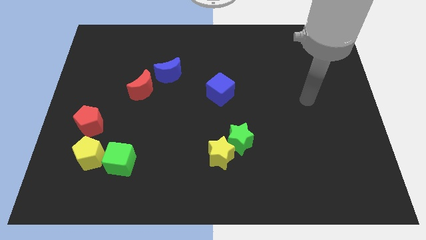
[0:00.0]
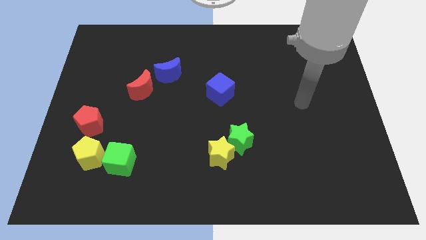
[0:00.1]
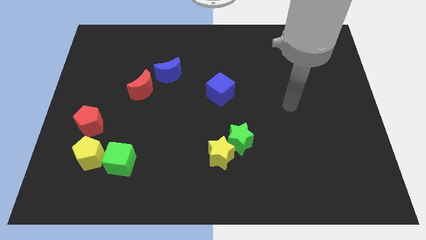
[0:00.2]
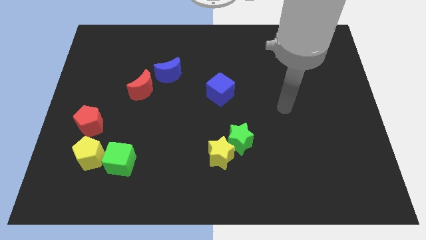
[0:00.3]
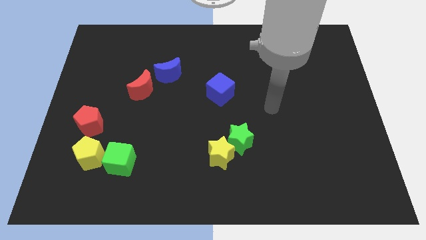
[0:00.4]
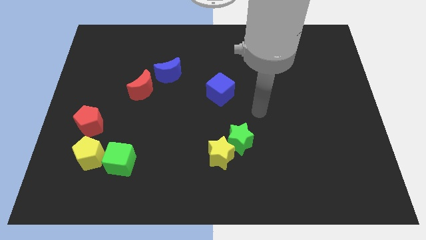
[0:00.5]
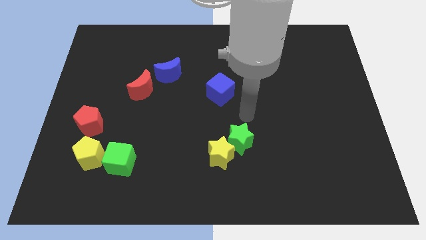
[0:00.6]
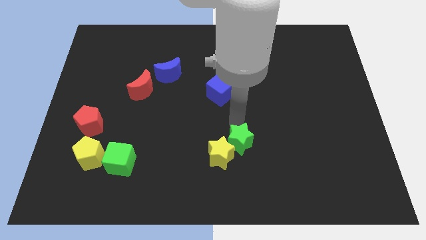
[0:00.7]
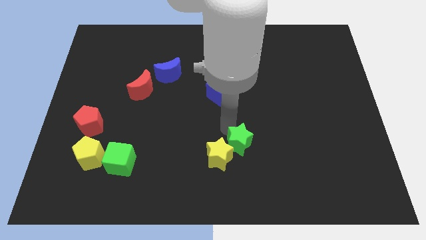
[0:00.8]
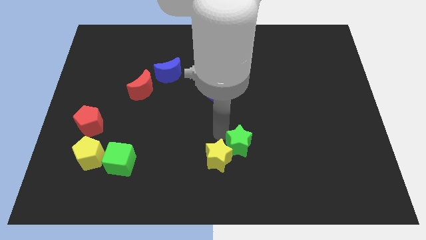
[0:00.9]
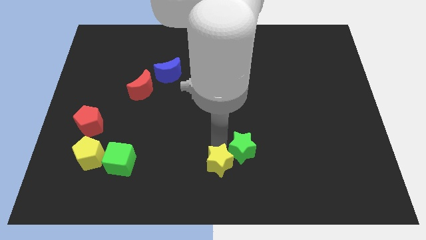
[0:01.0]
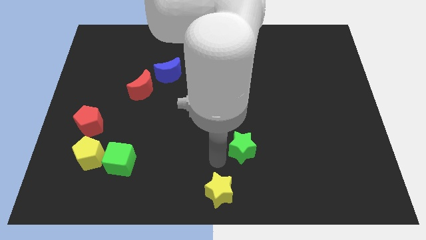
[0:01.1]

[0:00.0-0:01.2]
move the green star away from the yellow star

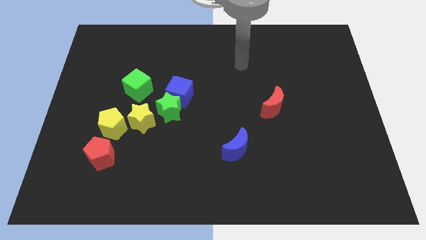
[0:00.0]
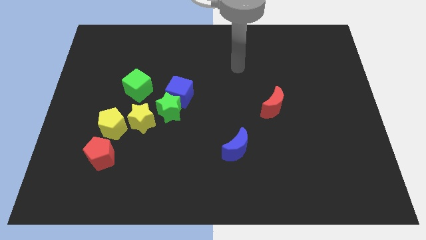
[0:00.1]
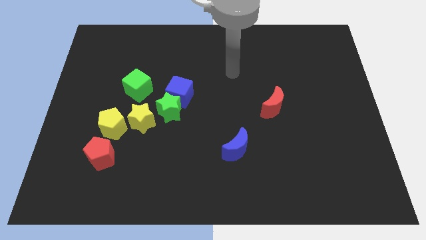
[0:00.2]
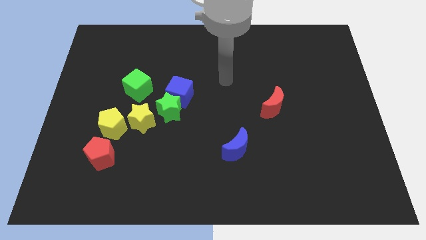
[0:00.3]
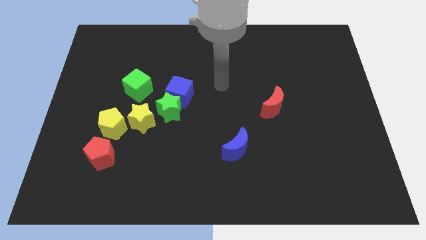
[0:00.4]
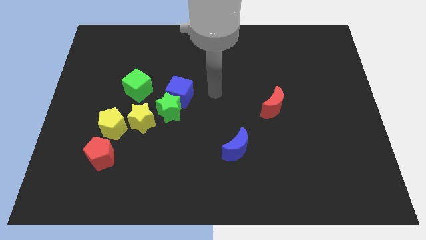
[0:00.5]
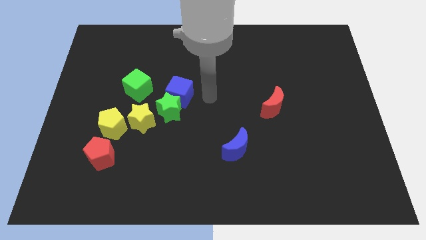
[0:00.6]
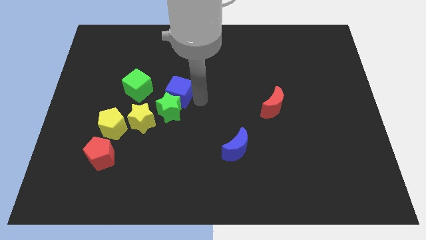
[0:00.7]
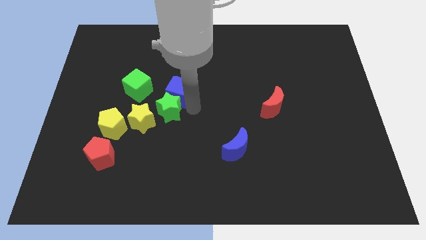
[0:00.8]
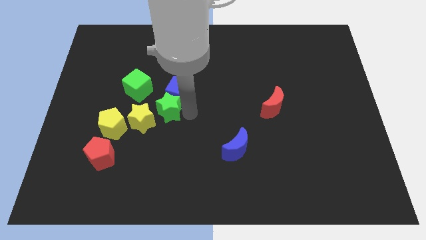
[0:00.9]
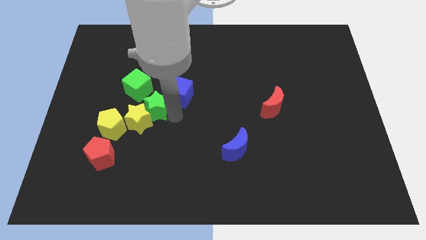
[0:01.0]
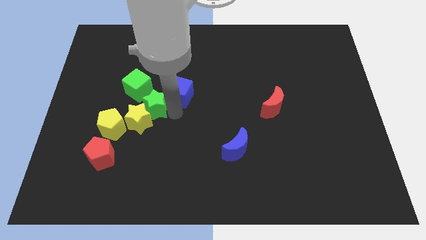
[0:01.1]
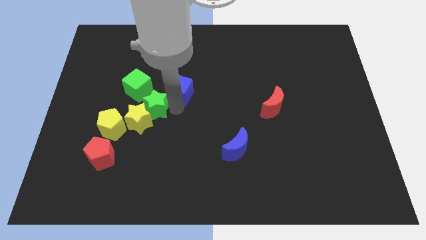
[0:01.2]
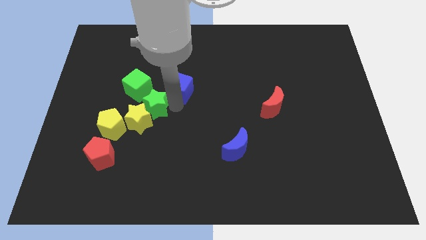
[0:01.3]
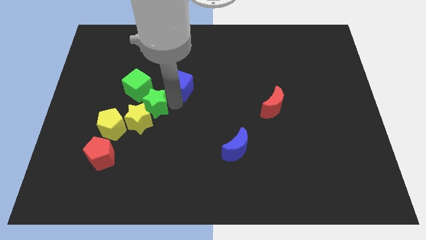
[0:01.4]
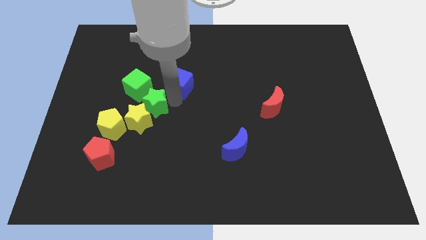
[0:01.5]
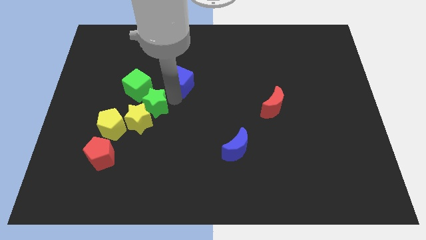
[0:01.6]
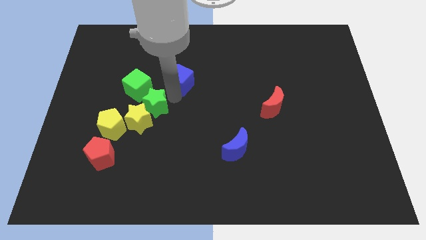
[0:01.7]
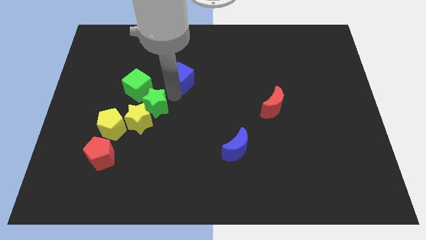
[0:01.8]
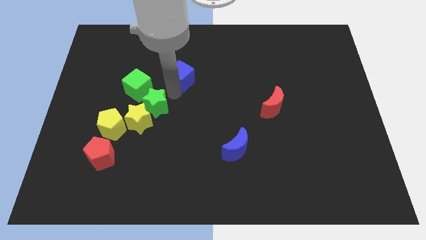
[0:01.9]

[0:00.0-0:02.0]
separate the blue cube from the green star

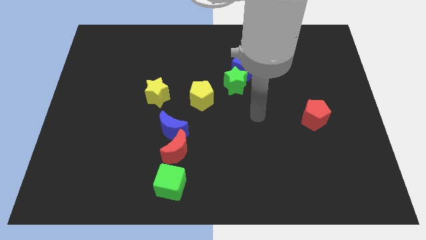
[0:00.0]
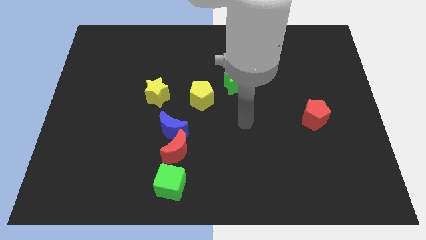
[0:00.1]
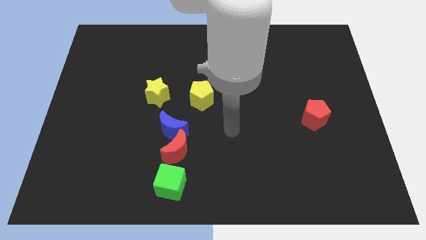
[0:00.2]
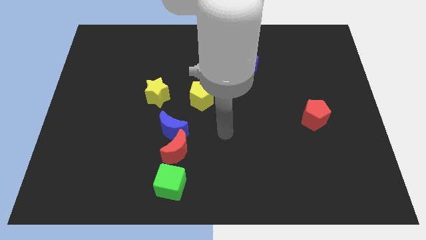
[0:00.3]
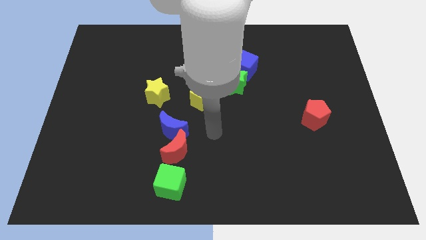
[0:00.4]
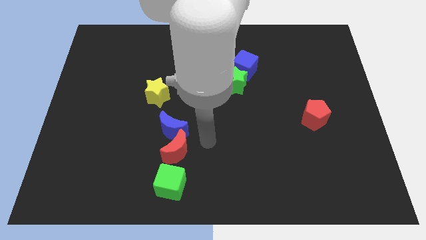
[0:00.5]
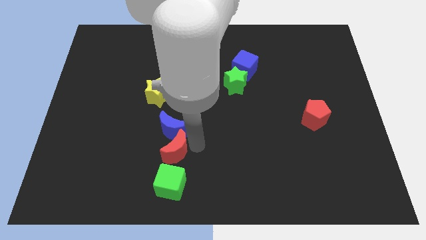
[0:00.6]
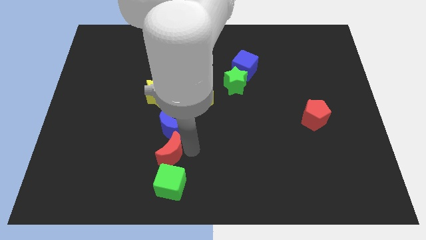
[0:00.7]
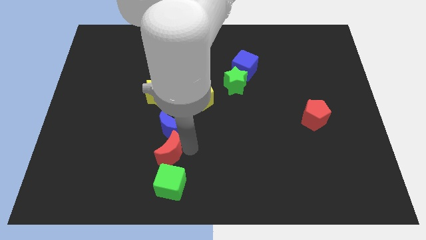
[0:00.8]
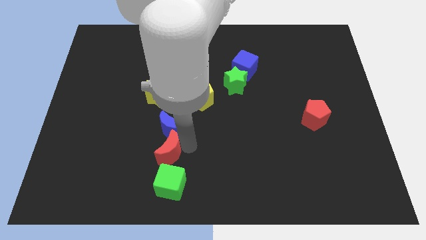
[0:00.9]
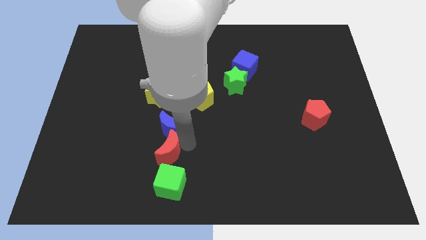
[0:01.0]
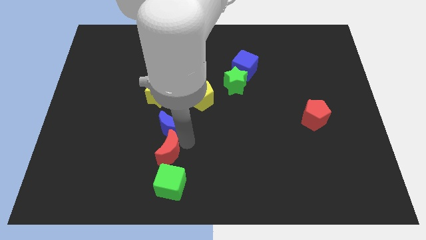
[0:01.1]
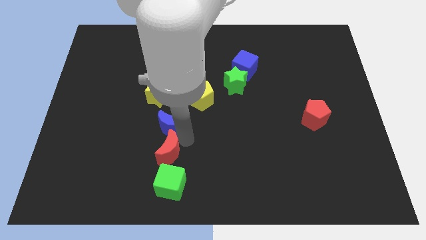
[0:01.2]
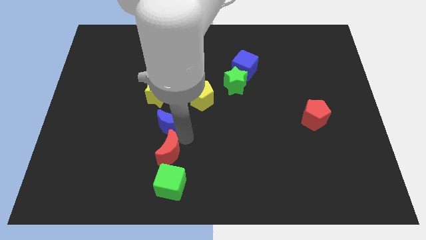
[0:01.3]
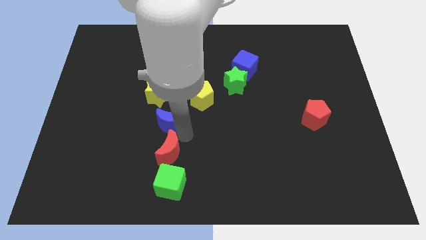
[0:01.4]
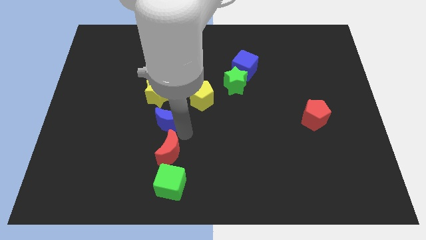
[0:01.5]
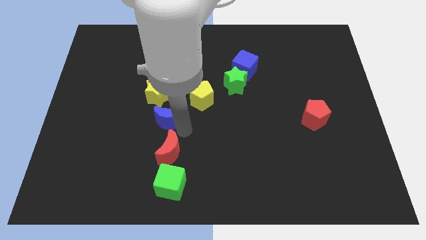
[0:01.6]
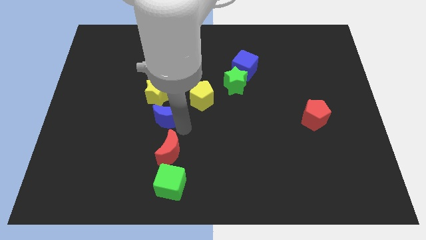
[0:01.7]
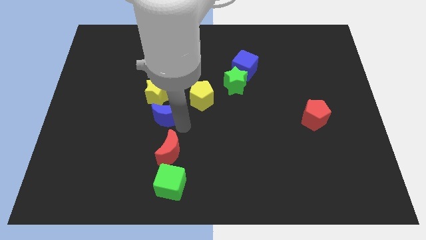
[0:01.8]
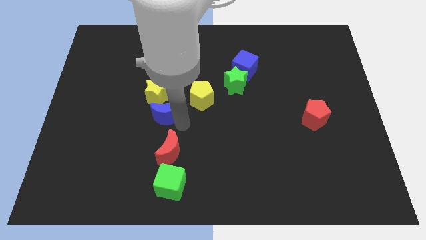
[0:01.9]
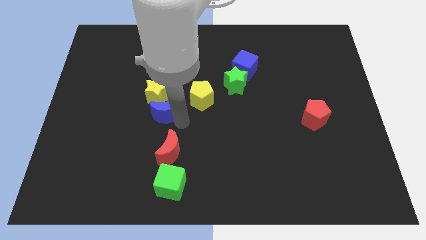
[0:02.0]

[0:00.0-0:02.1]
separate the blue moon from the red moon

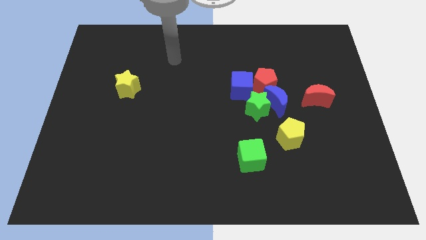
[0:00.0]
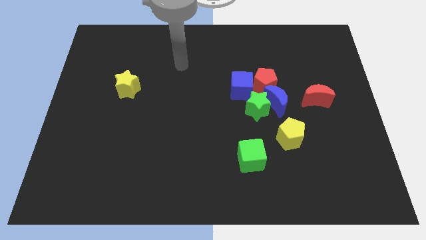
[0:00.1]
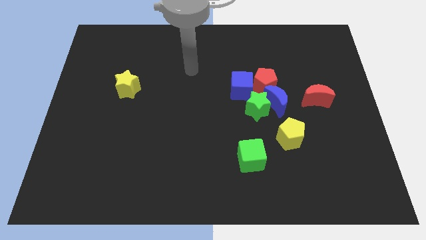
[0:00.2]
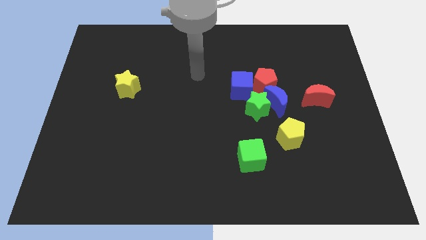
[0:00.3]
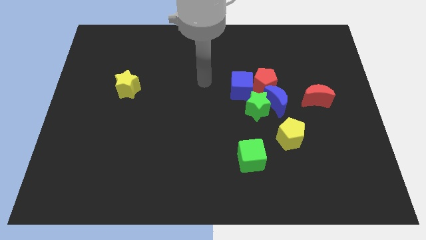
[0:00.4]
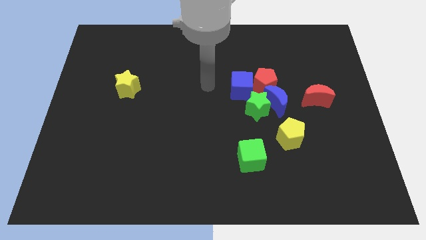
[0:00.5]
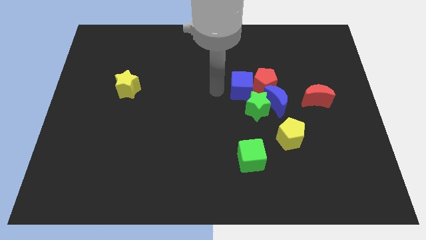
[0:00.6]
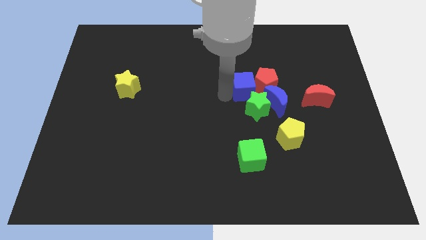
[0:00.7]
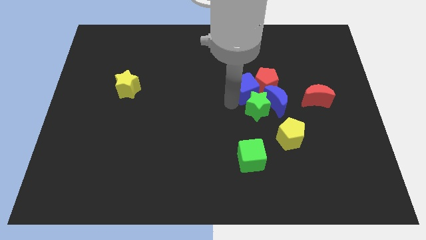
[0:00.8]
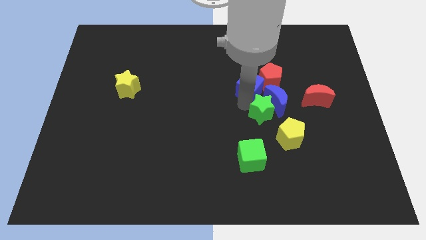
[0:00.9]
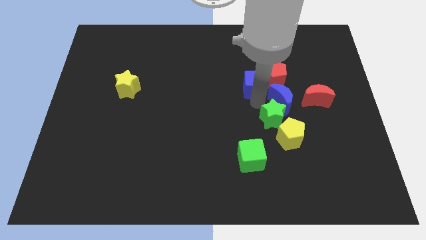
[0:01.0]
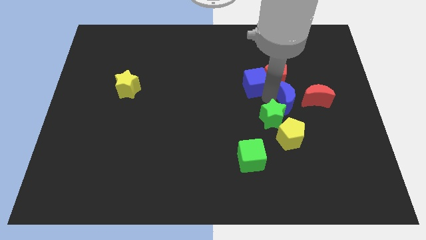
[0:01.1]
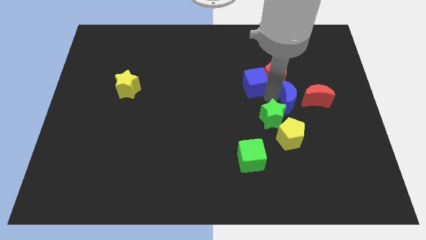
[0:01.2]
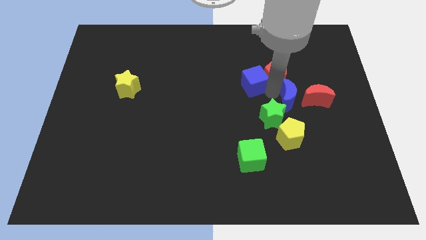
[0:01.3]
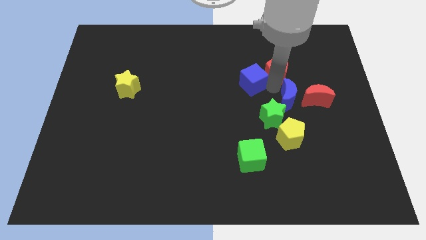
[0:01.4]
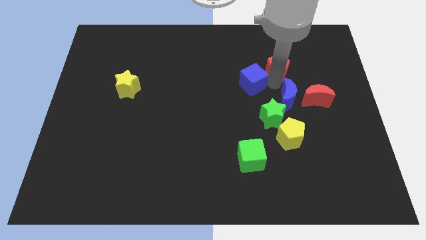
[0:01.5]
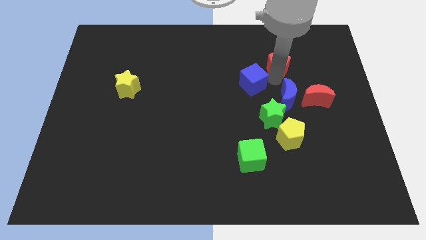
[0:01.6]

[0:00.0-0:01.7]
move the red pentagon away from the group

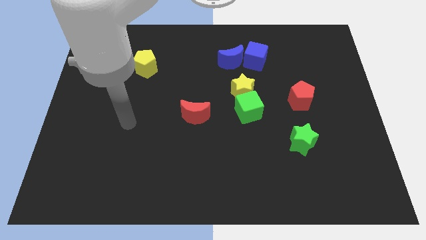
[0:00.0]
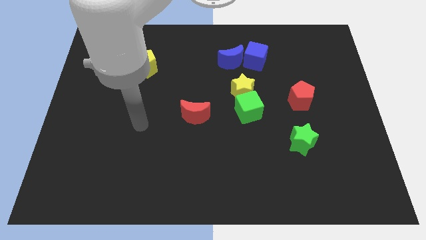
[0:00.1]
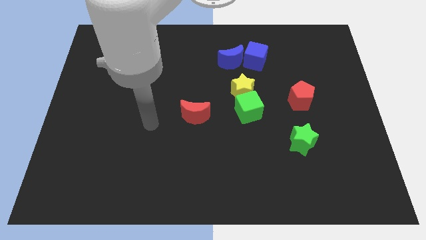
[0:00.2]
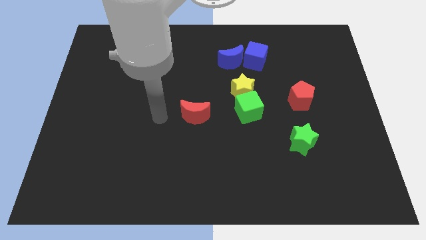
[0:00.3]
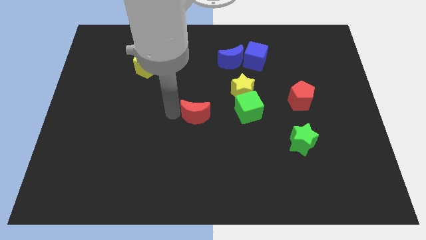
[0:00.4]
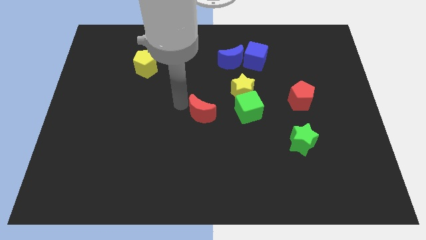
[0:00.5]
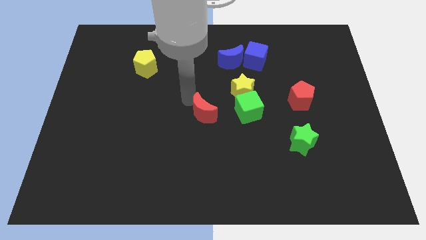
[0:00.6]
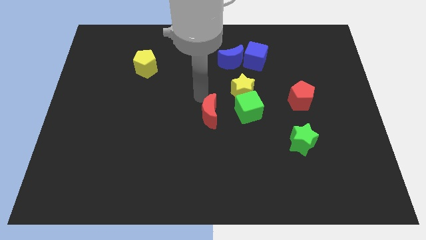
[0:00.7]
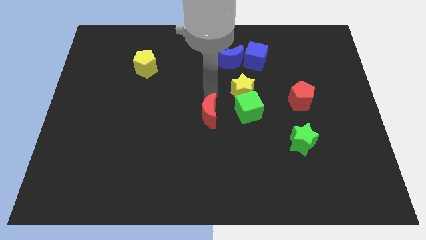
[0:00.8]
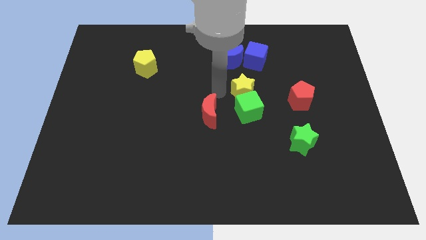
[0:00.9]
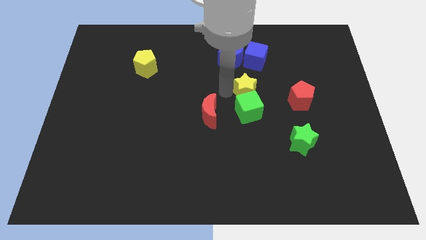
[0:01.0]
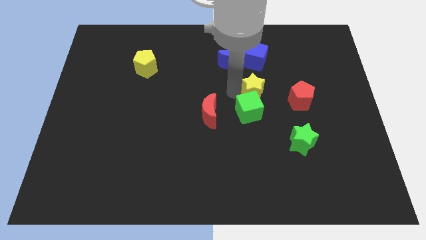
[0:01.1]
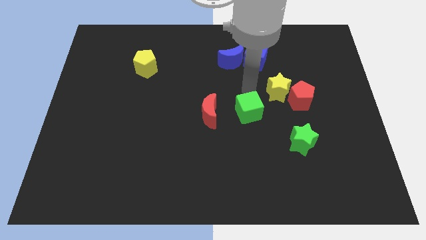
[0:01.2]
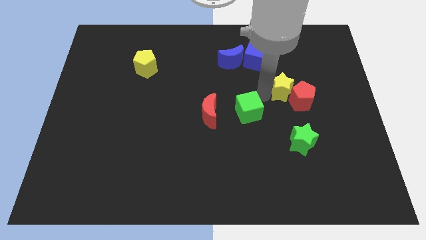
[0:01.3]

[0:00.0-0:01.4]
move the green cube away from the yellow star

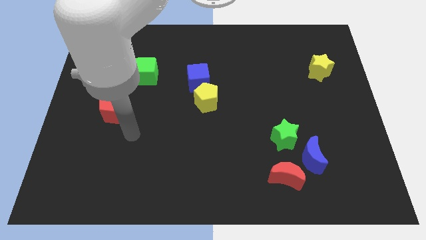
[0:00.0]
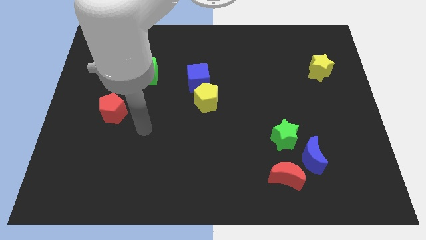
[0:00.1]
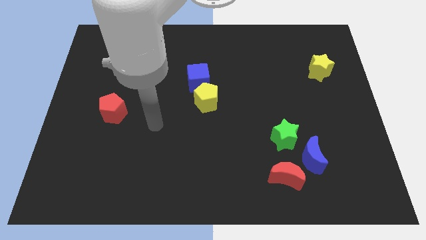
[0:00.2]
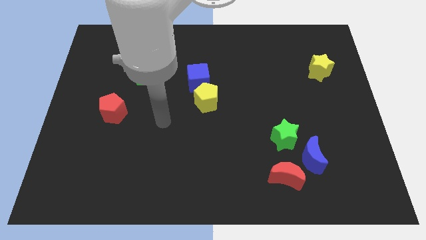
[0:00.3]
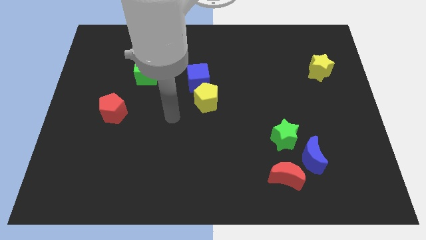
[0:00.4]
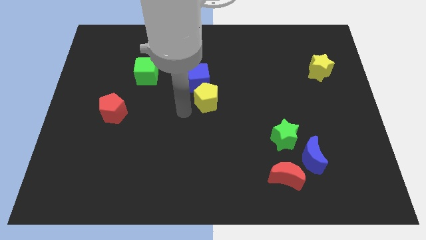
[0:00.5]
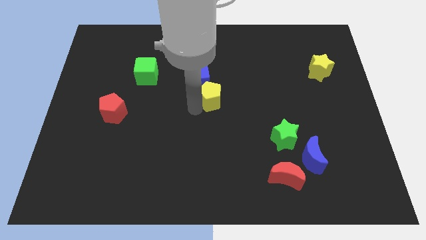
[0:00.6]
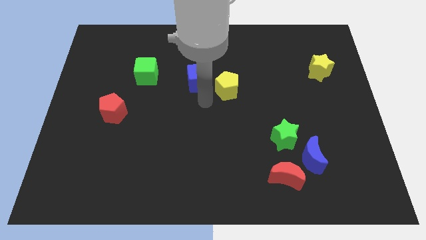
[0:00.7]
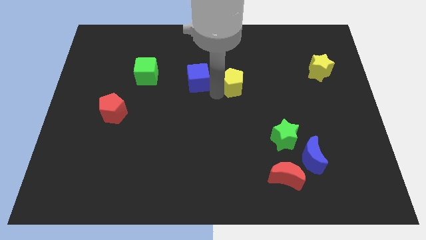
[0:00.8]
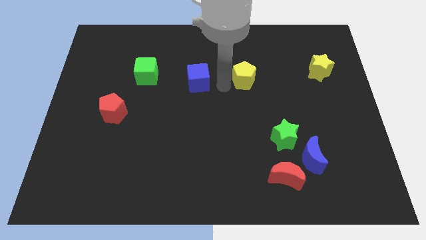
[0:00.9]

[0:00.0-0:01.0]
move the blue cube away from the yellow pentagon
